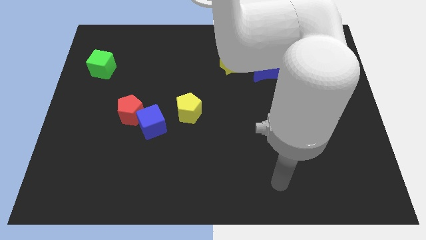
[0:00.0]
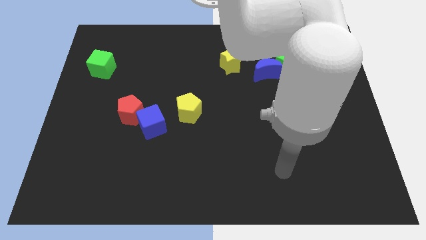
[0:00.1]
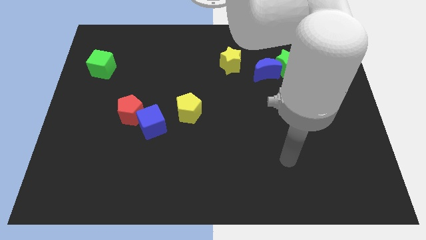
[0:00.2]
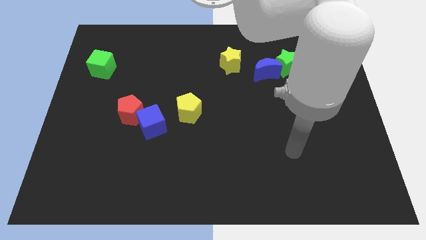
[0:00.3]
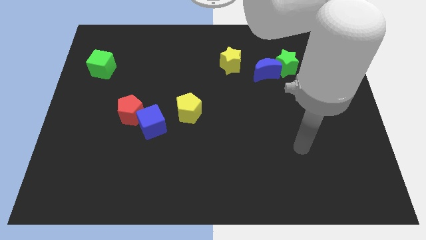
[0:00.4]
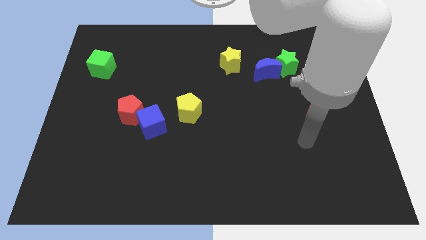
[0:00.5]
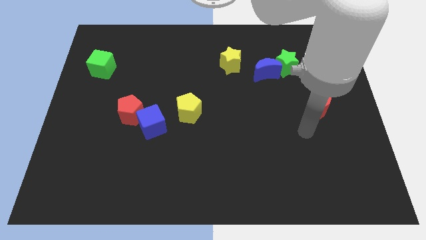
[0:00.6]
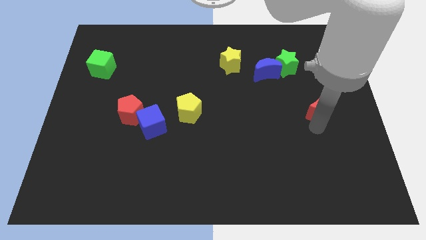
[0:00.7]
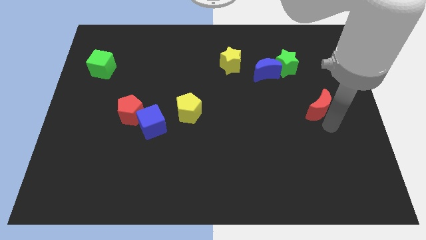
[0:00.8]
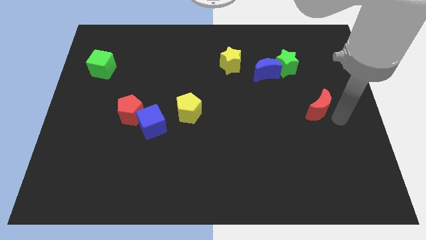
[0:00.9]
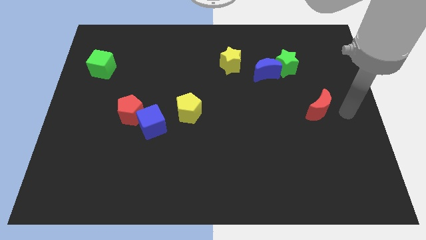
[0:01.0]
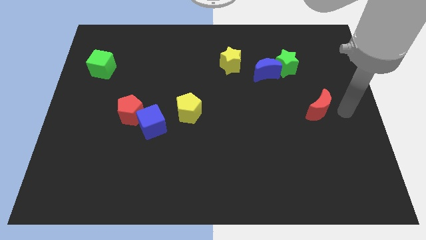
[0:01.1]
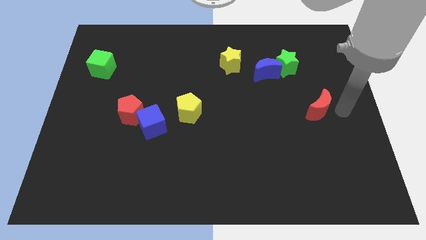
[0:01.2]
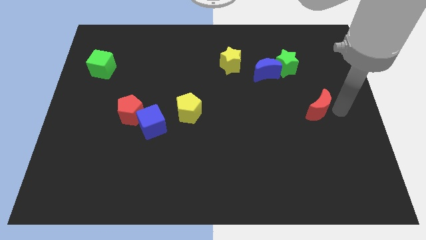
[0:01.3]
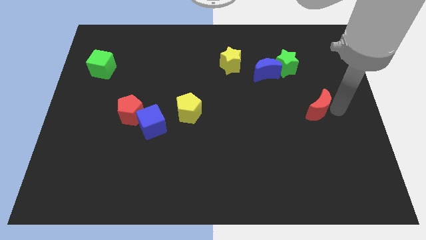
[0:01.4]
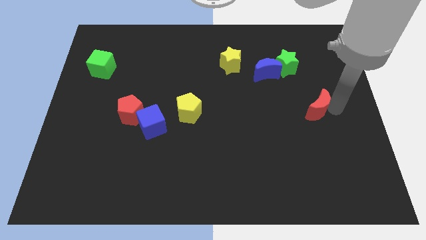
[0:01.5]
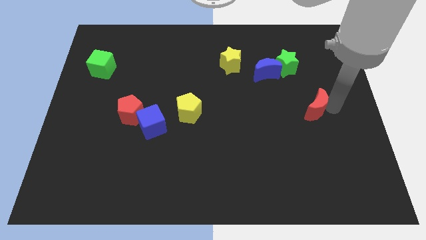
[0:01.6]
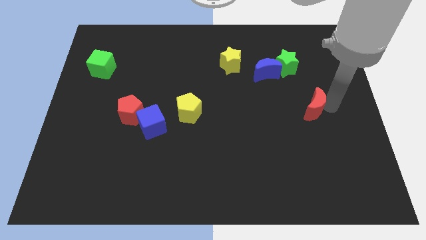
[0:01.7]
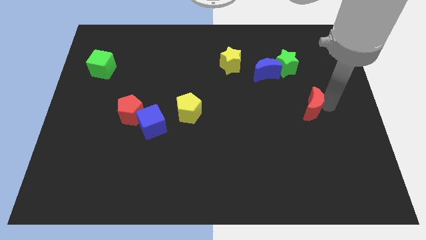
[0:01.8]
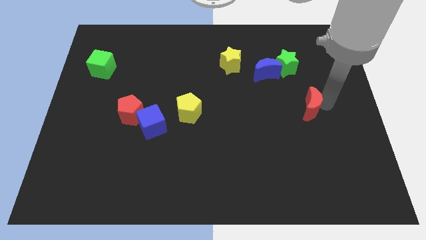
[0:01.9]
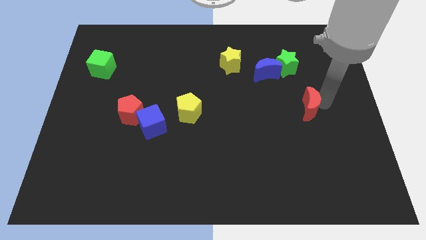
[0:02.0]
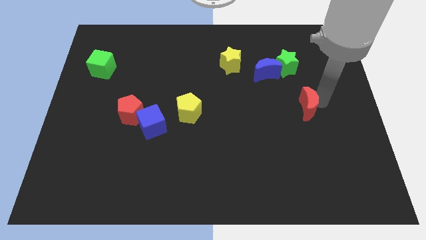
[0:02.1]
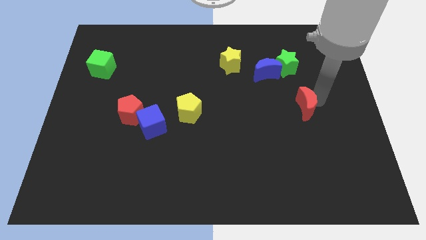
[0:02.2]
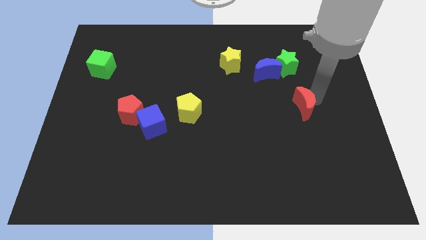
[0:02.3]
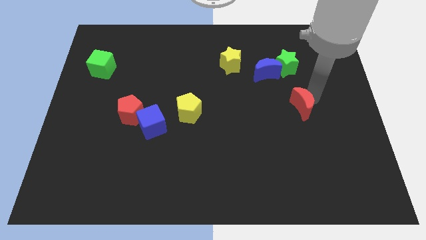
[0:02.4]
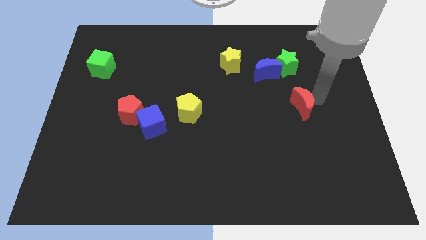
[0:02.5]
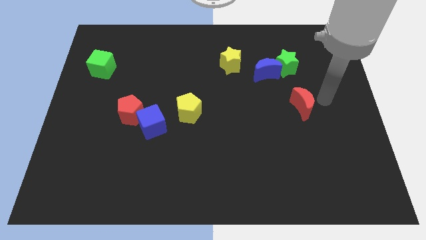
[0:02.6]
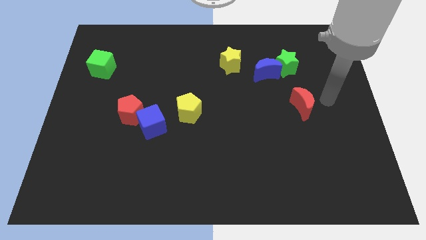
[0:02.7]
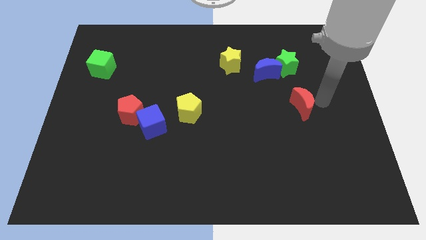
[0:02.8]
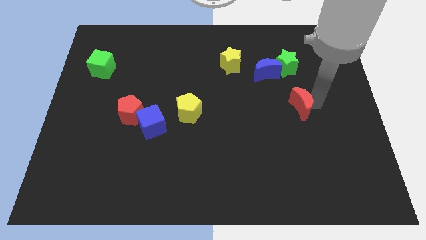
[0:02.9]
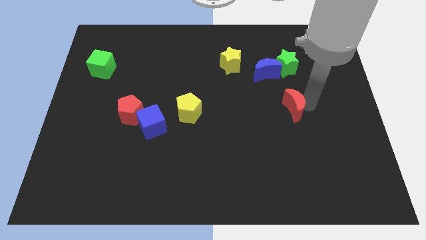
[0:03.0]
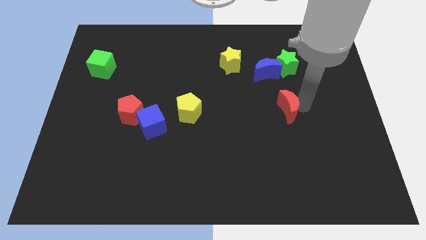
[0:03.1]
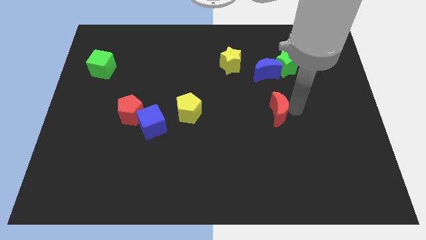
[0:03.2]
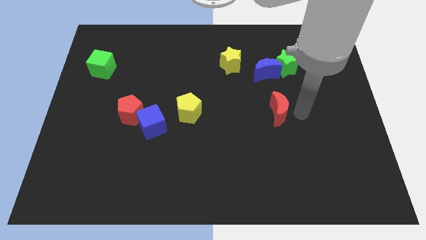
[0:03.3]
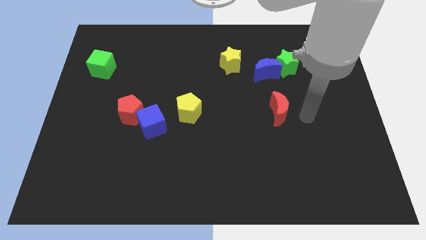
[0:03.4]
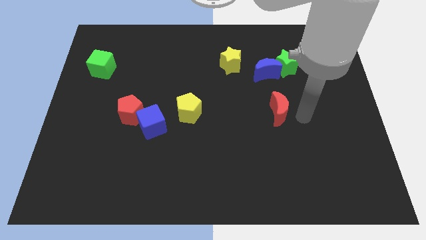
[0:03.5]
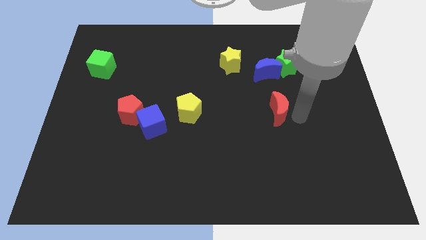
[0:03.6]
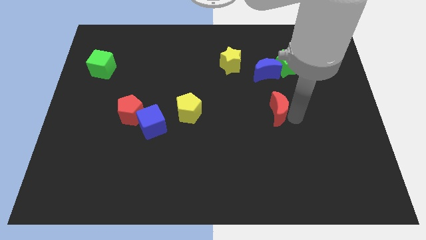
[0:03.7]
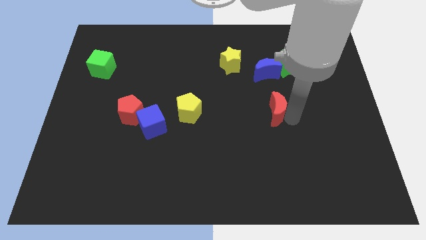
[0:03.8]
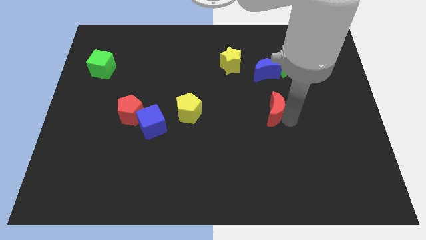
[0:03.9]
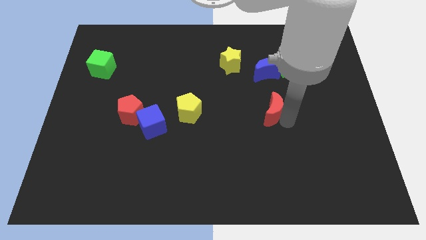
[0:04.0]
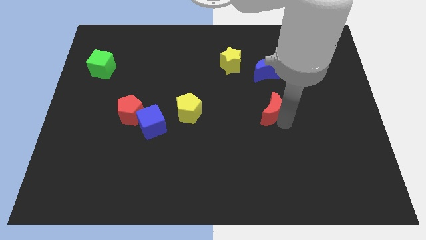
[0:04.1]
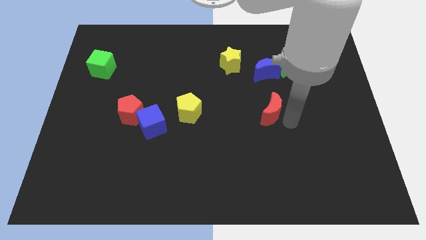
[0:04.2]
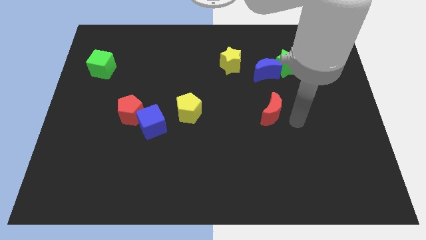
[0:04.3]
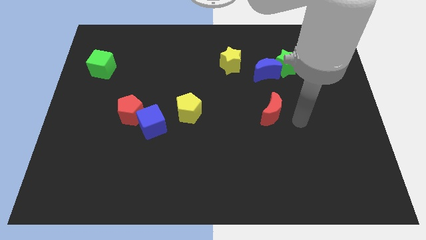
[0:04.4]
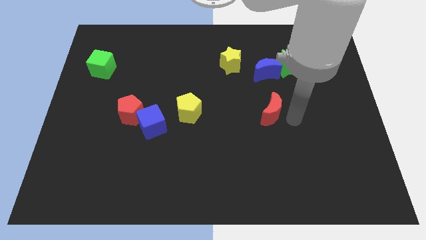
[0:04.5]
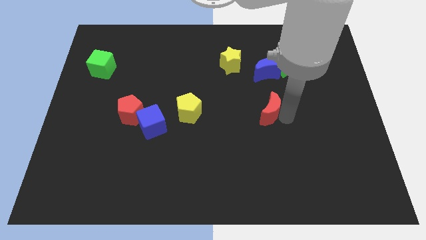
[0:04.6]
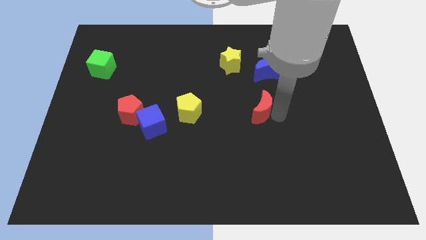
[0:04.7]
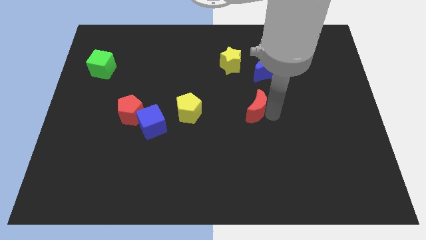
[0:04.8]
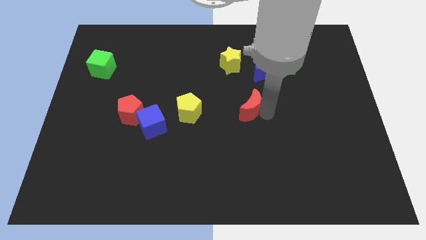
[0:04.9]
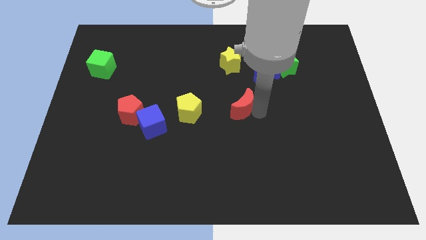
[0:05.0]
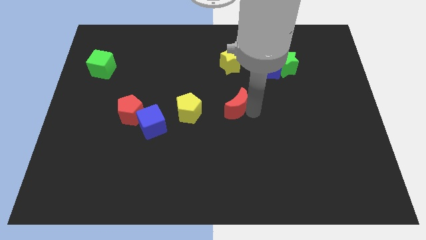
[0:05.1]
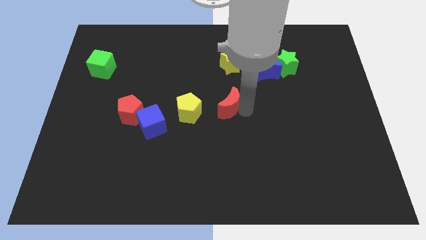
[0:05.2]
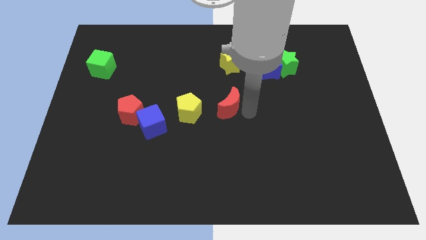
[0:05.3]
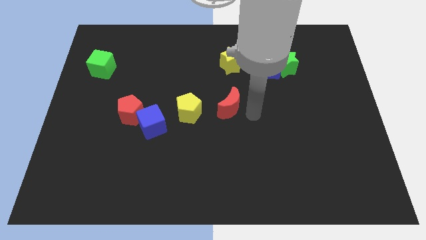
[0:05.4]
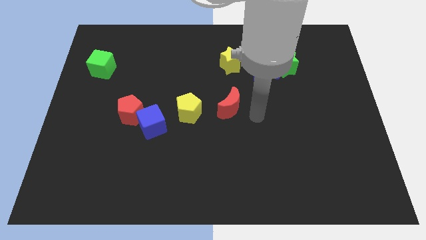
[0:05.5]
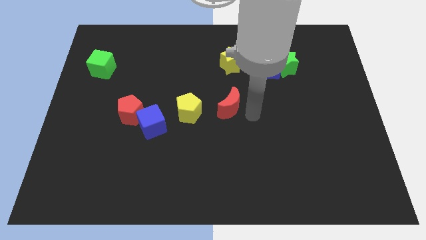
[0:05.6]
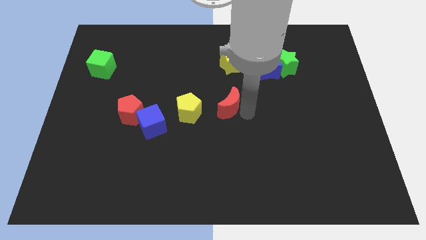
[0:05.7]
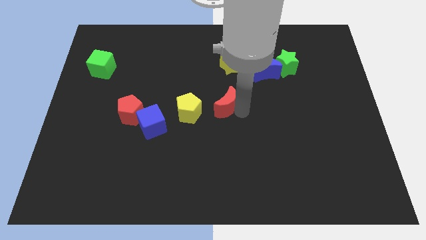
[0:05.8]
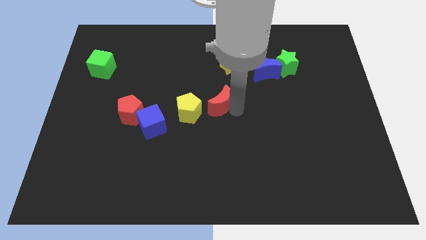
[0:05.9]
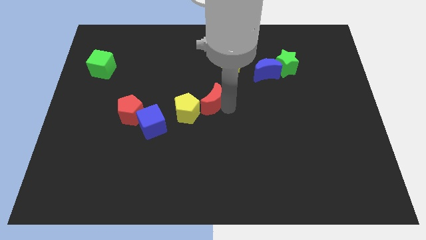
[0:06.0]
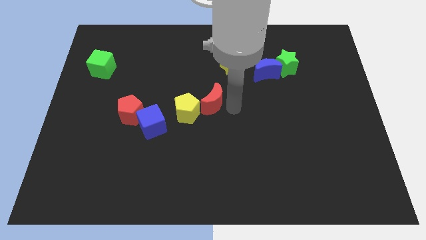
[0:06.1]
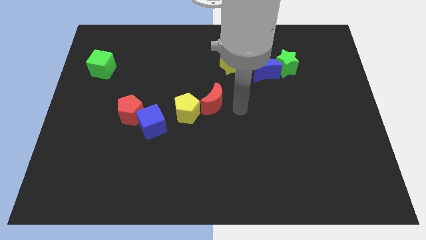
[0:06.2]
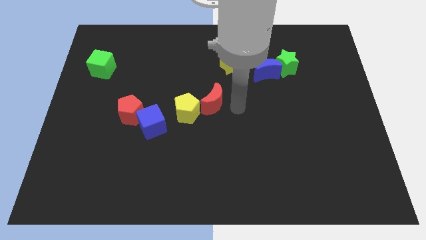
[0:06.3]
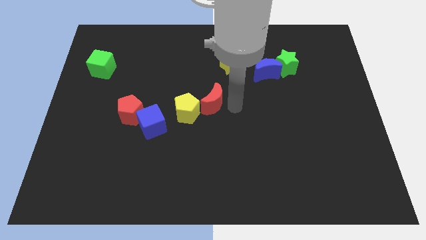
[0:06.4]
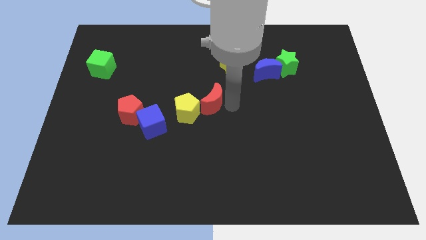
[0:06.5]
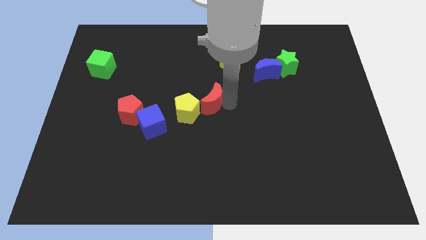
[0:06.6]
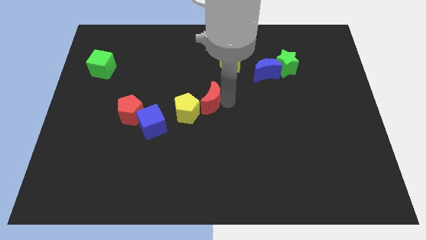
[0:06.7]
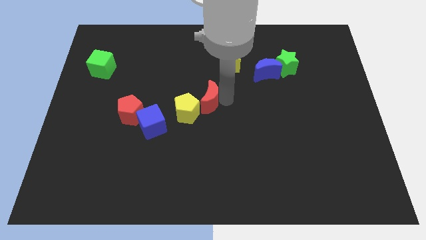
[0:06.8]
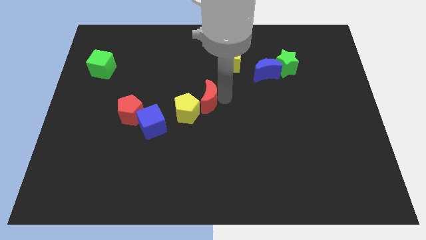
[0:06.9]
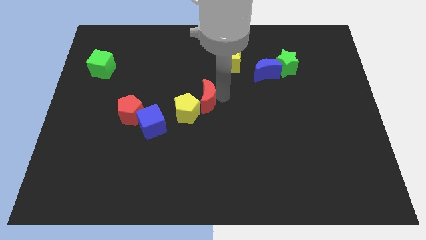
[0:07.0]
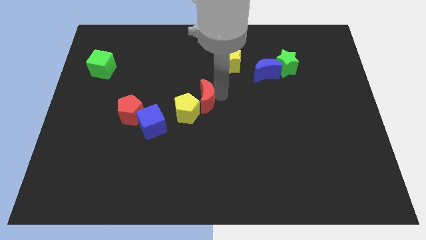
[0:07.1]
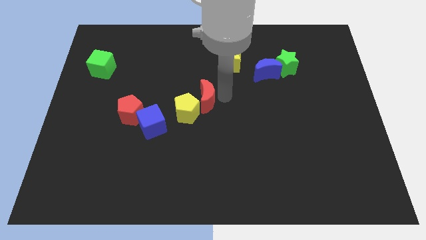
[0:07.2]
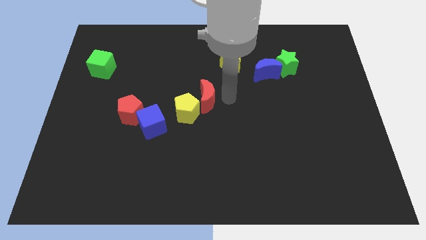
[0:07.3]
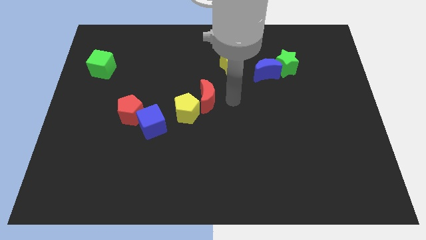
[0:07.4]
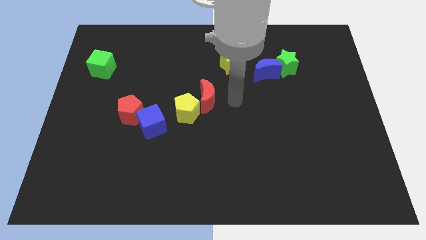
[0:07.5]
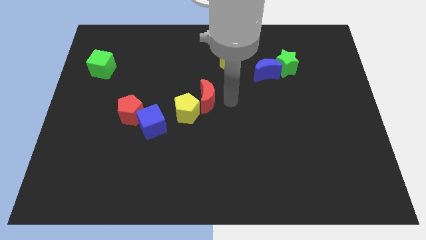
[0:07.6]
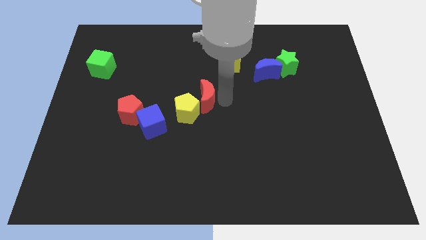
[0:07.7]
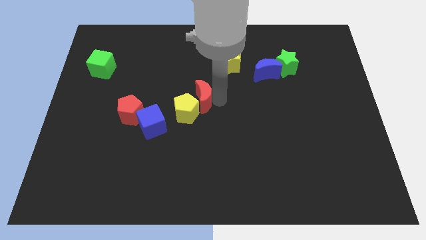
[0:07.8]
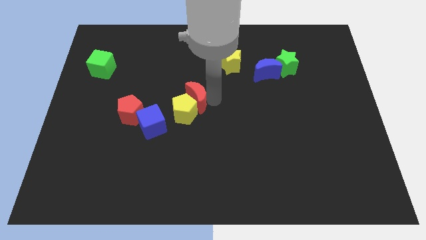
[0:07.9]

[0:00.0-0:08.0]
push the red moon diagonally up and to the right of the blue cube
